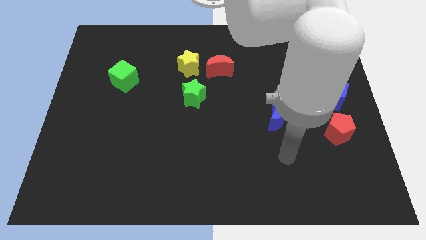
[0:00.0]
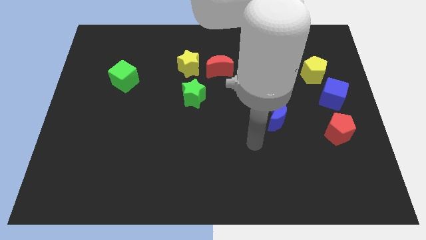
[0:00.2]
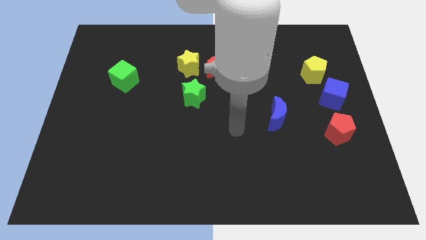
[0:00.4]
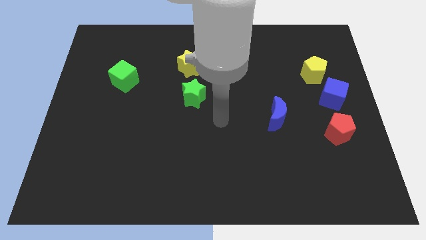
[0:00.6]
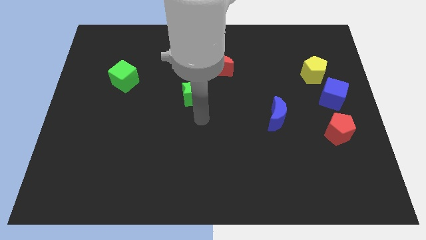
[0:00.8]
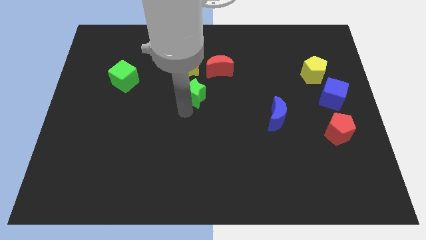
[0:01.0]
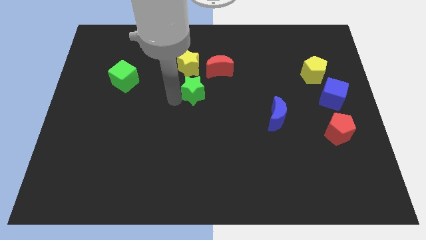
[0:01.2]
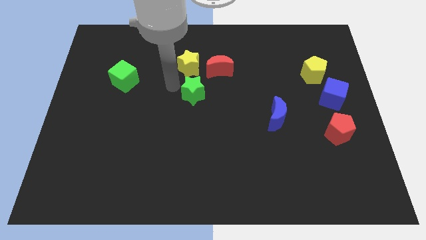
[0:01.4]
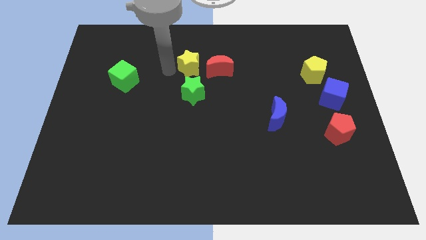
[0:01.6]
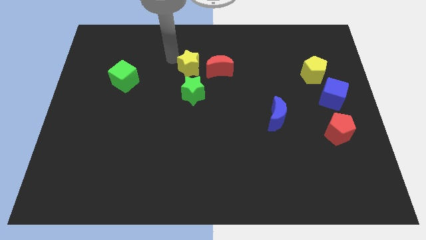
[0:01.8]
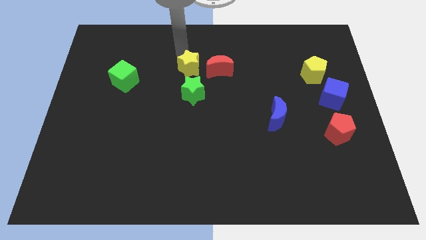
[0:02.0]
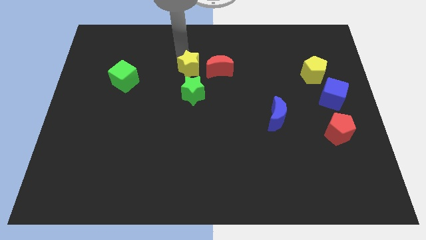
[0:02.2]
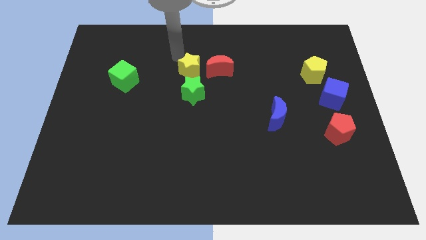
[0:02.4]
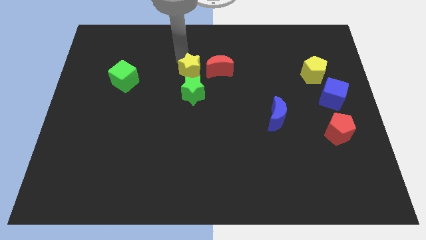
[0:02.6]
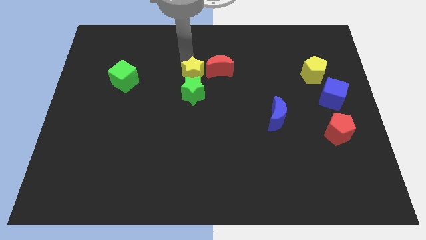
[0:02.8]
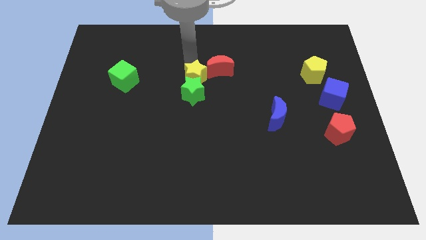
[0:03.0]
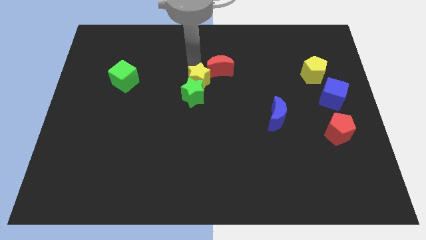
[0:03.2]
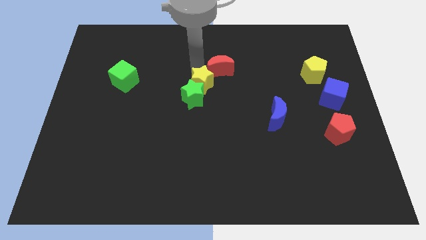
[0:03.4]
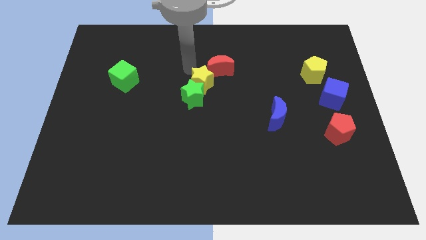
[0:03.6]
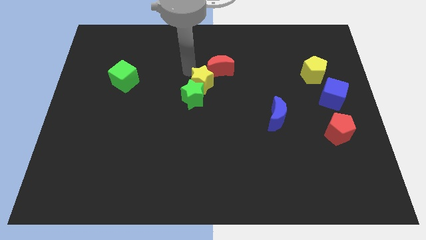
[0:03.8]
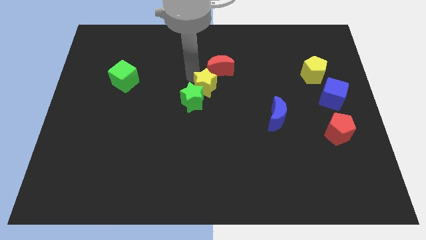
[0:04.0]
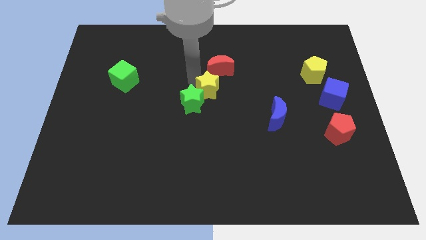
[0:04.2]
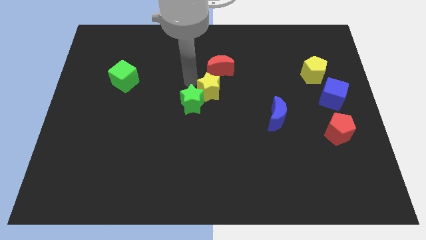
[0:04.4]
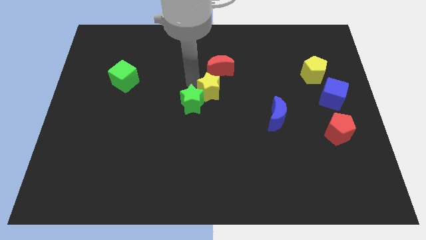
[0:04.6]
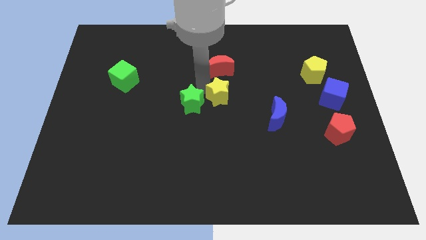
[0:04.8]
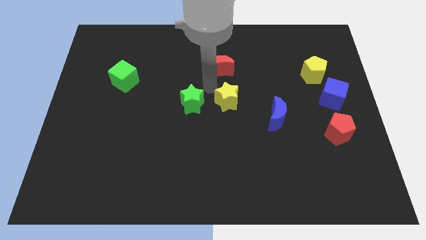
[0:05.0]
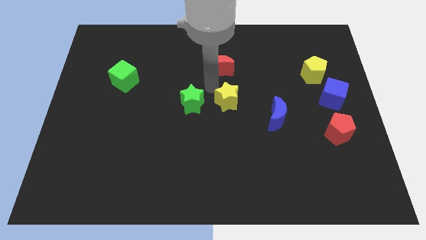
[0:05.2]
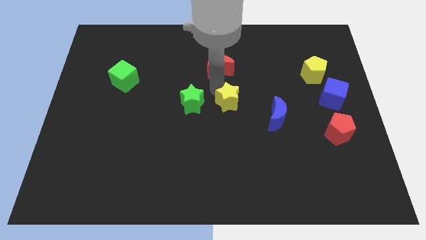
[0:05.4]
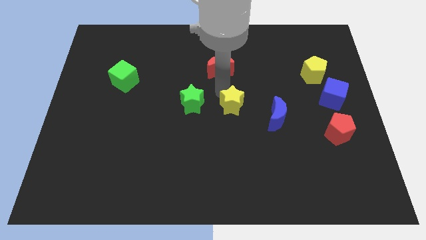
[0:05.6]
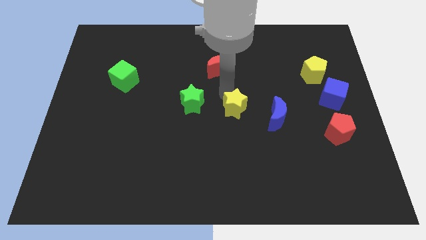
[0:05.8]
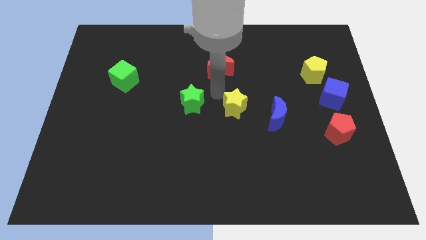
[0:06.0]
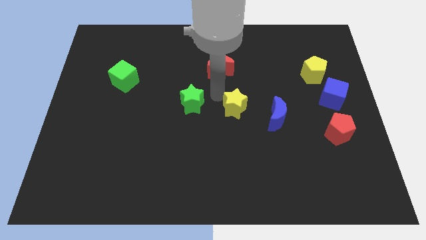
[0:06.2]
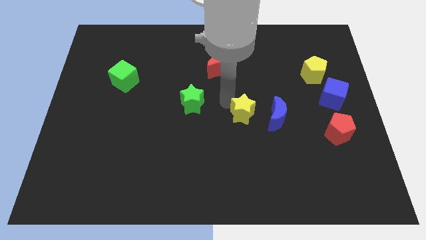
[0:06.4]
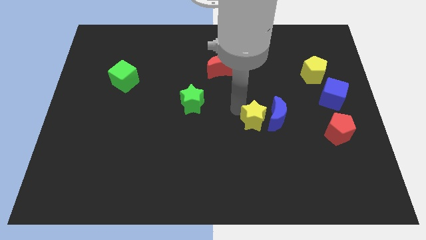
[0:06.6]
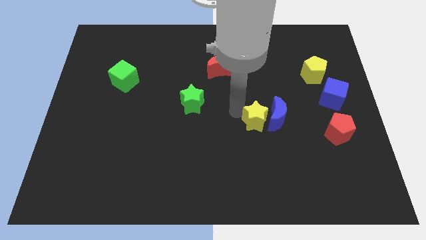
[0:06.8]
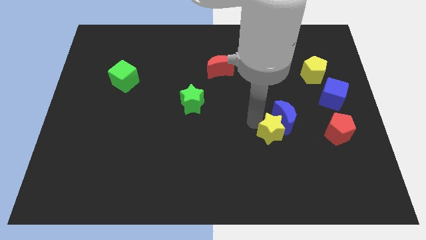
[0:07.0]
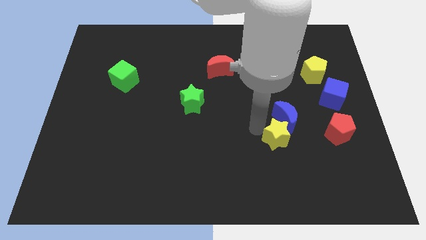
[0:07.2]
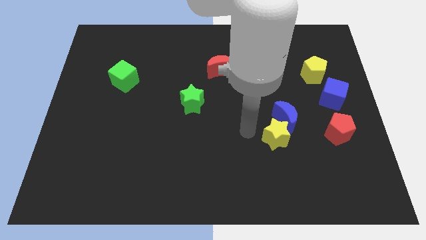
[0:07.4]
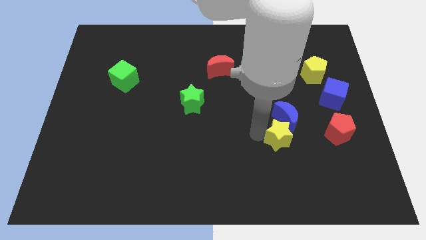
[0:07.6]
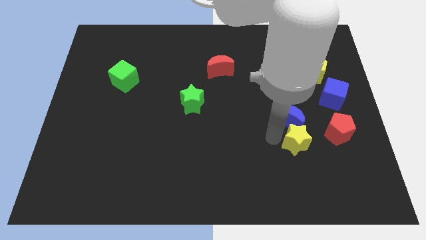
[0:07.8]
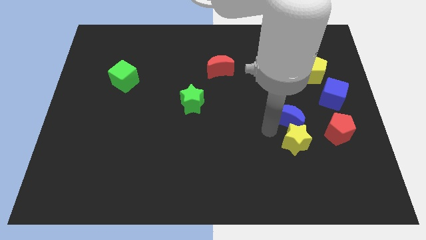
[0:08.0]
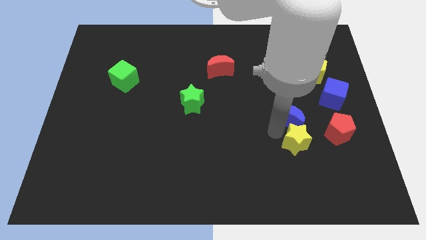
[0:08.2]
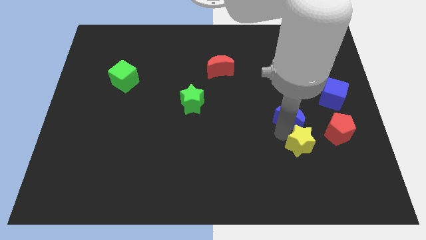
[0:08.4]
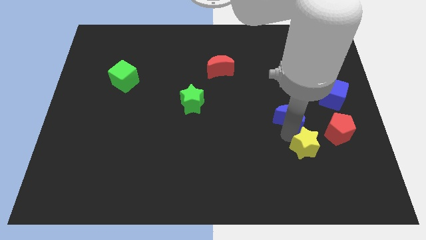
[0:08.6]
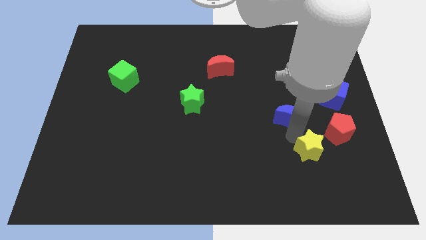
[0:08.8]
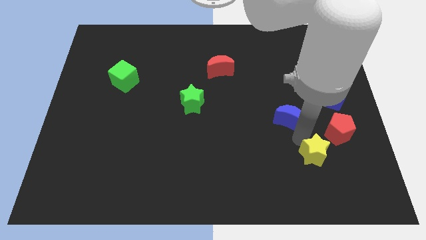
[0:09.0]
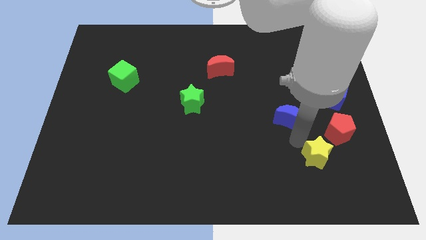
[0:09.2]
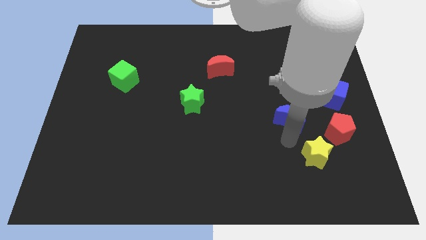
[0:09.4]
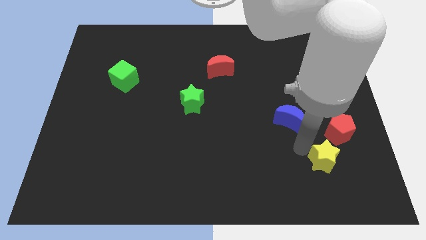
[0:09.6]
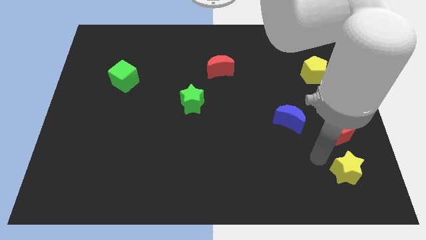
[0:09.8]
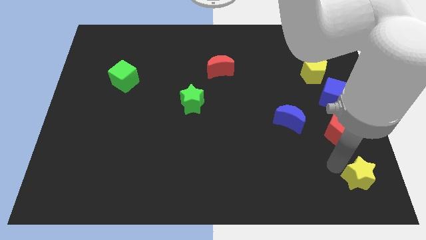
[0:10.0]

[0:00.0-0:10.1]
slide the yellow star to the bottom right corner

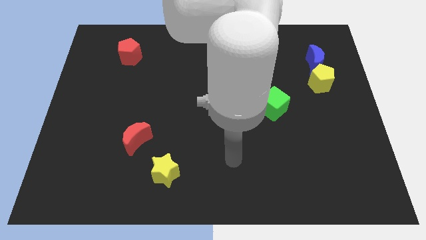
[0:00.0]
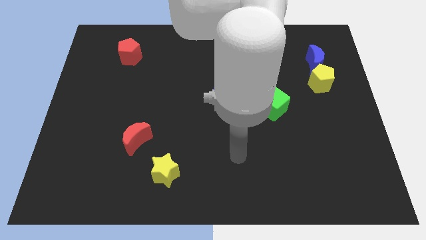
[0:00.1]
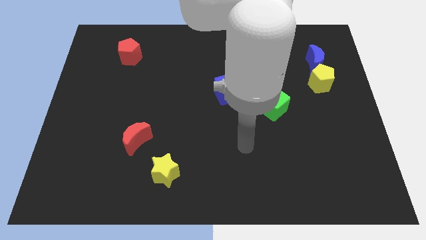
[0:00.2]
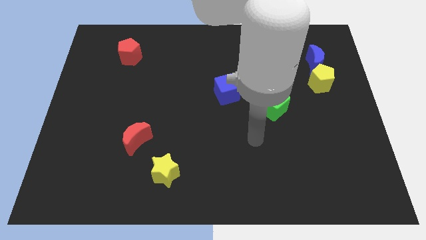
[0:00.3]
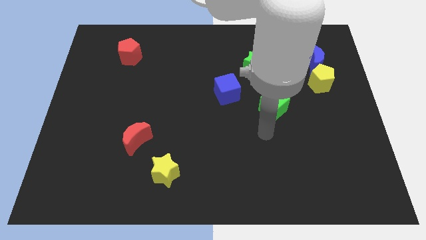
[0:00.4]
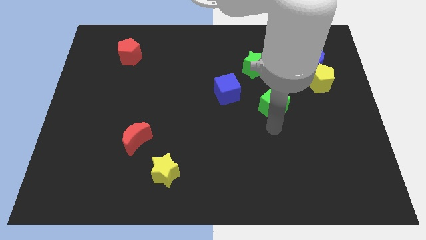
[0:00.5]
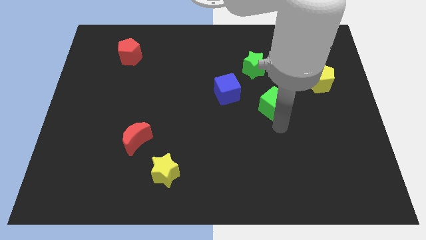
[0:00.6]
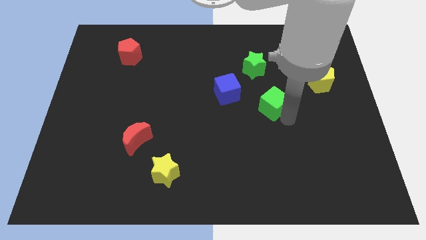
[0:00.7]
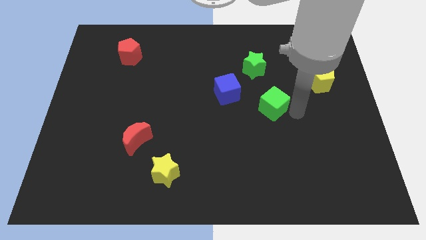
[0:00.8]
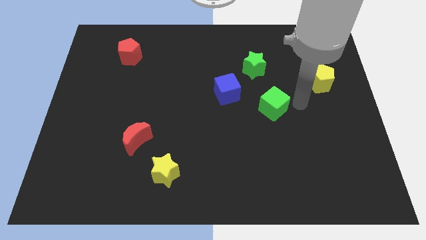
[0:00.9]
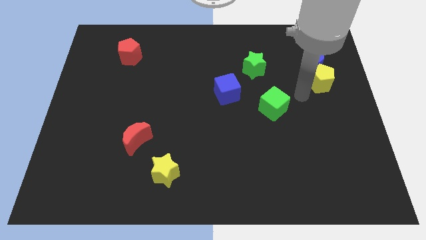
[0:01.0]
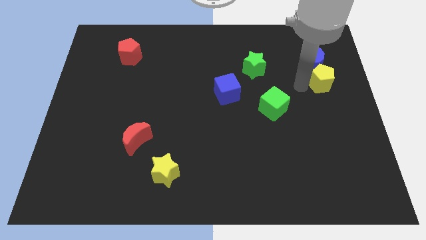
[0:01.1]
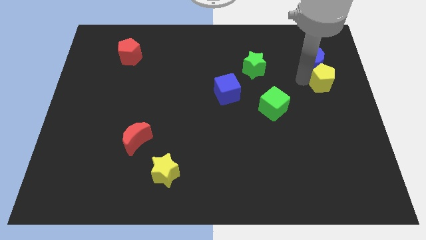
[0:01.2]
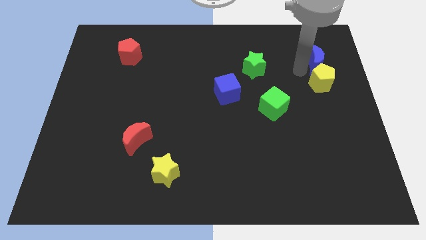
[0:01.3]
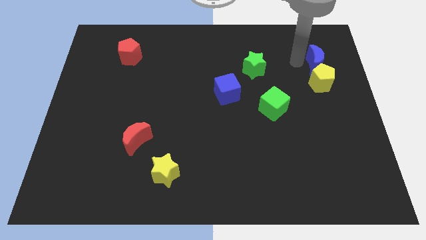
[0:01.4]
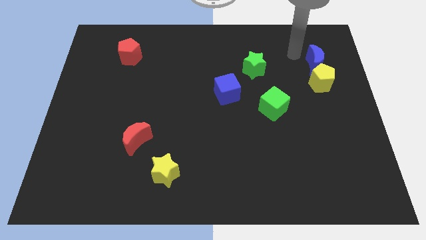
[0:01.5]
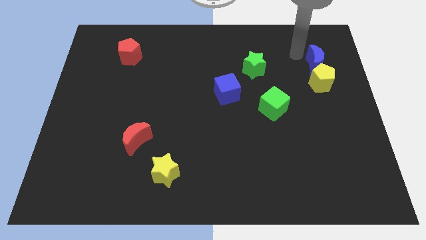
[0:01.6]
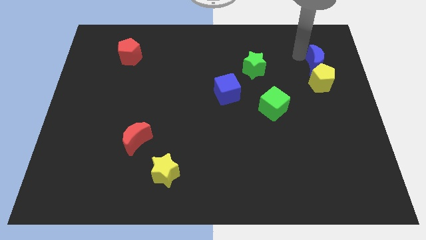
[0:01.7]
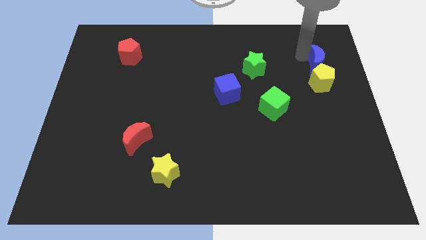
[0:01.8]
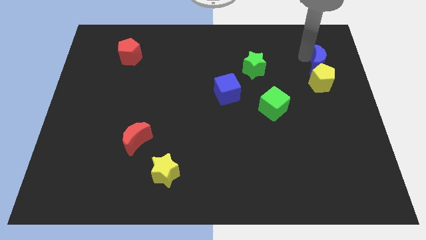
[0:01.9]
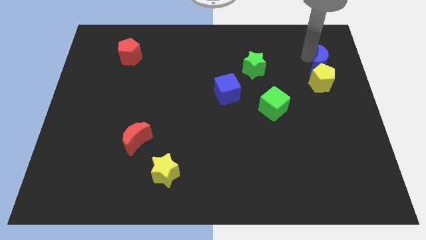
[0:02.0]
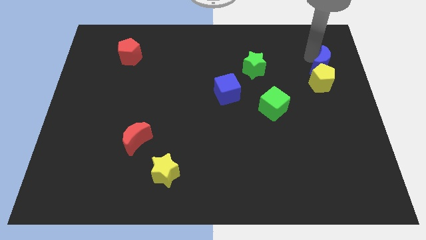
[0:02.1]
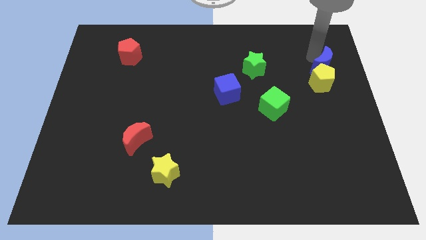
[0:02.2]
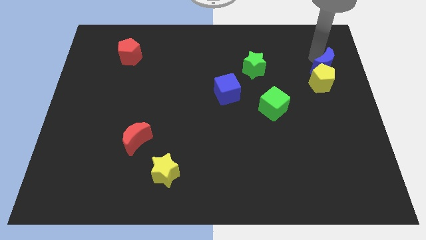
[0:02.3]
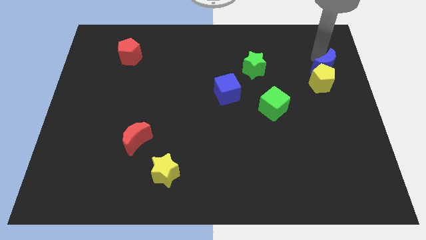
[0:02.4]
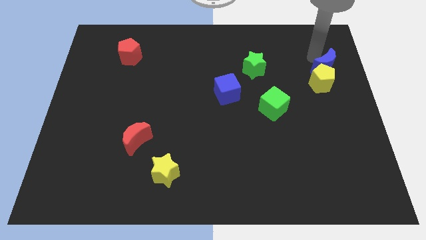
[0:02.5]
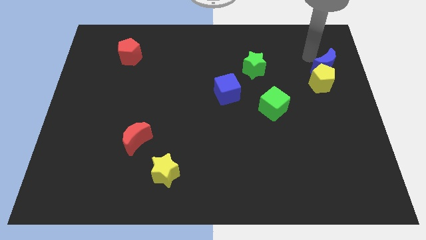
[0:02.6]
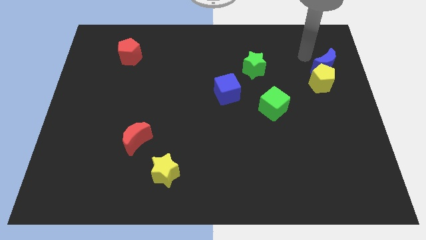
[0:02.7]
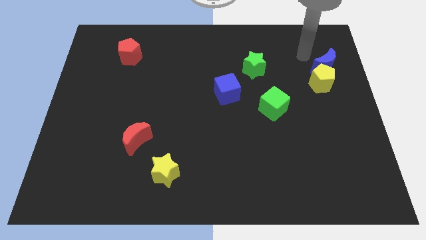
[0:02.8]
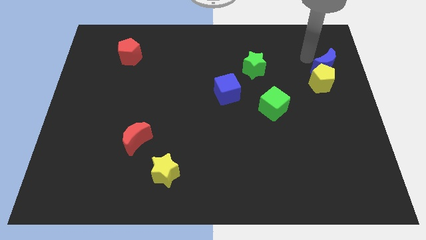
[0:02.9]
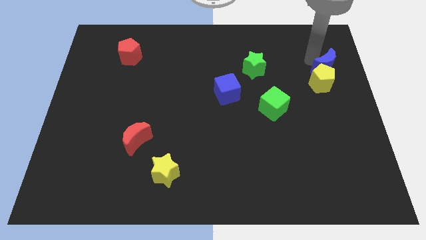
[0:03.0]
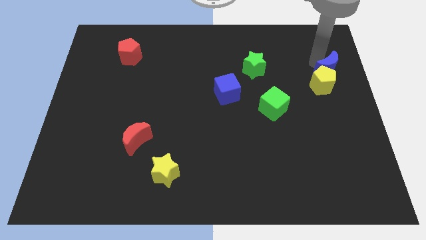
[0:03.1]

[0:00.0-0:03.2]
move the blue moon to the right side of the board
